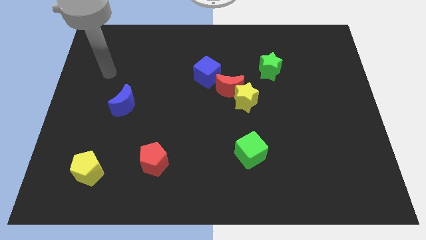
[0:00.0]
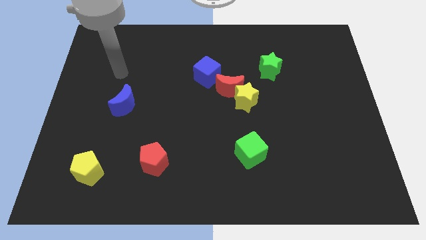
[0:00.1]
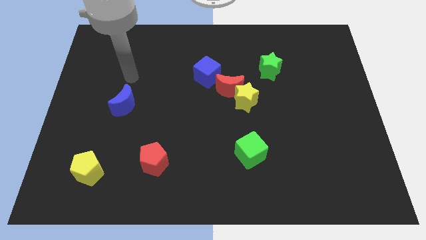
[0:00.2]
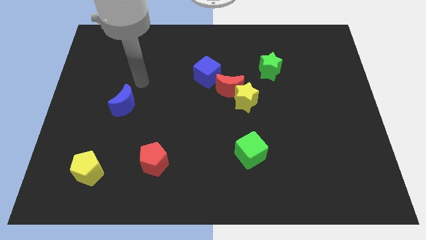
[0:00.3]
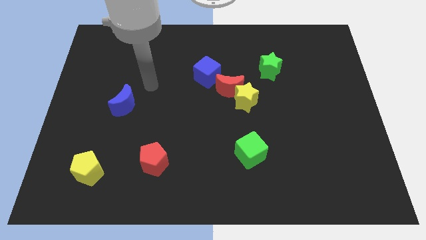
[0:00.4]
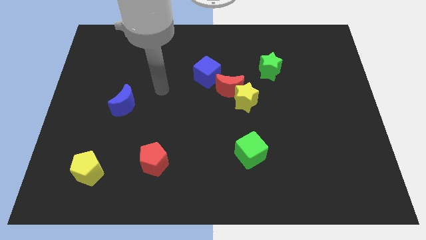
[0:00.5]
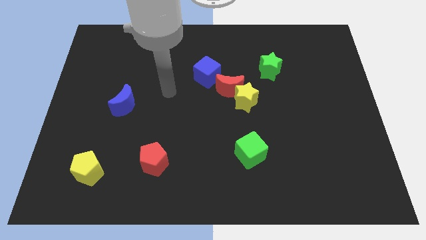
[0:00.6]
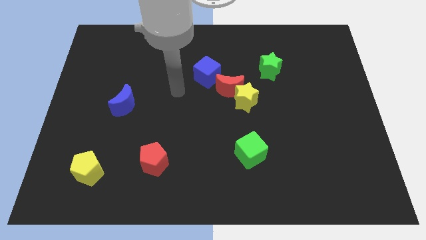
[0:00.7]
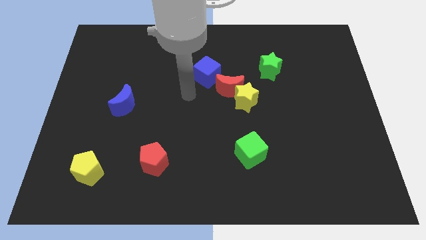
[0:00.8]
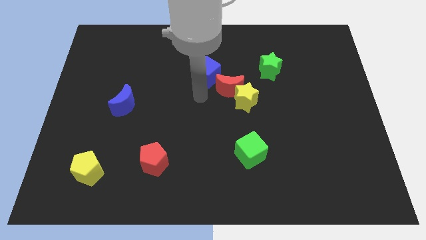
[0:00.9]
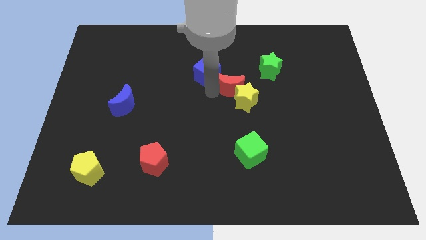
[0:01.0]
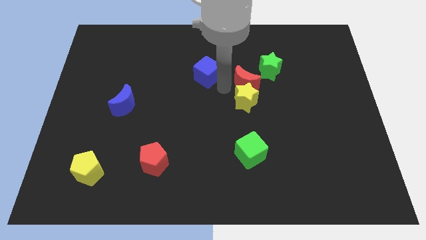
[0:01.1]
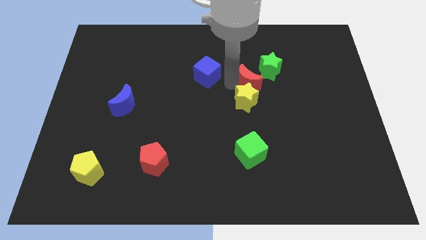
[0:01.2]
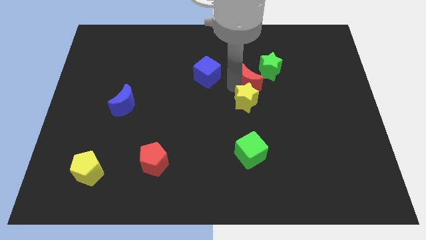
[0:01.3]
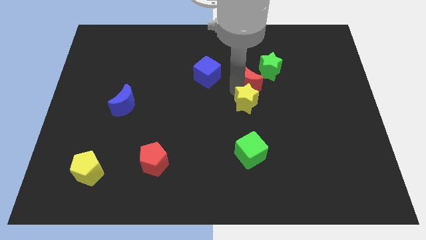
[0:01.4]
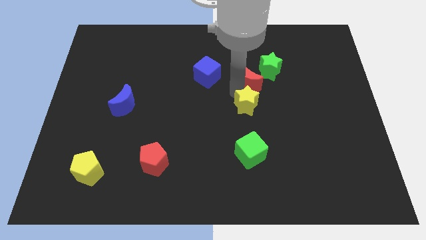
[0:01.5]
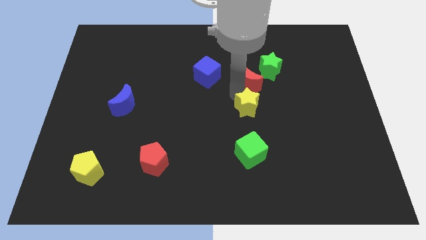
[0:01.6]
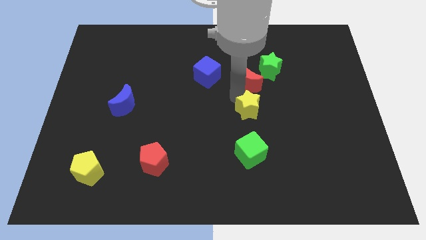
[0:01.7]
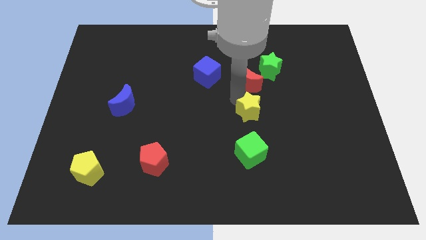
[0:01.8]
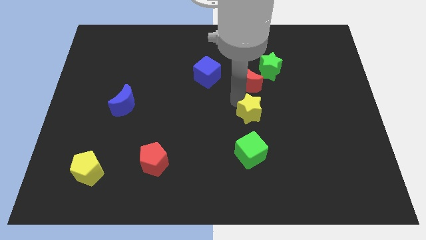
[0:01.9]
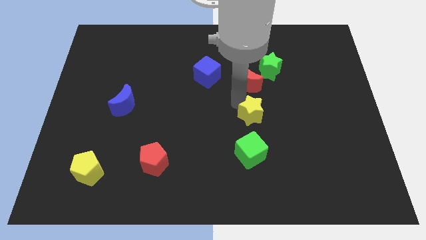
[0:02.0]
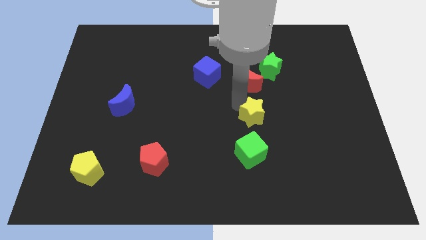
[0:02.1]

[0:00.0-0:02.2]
move the yellow star away from the red moon

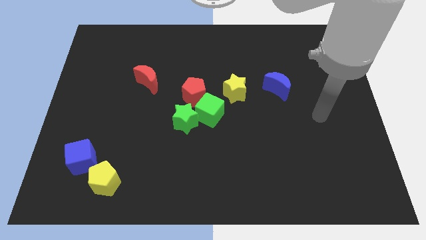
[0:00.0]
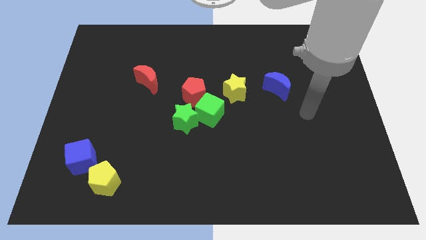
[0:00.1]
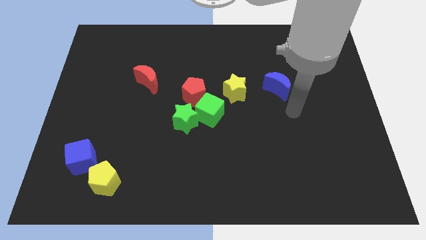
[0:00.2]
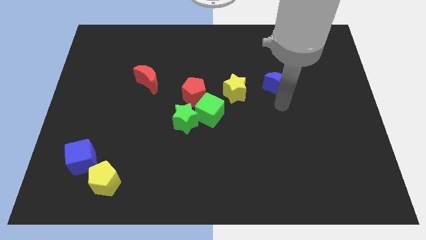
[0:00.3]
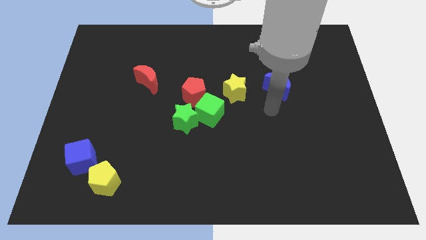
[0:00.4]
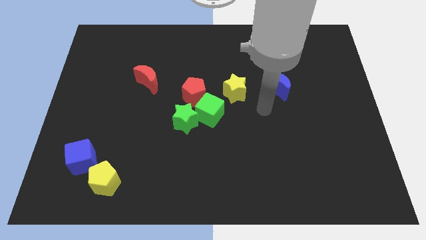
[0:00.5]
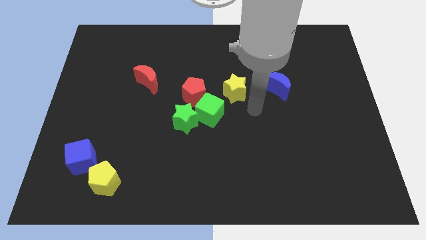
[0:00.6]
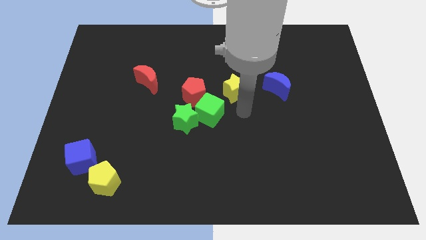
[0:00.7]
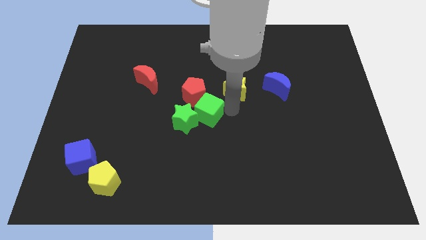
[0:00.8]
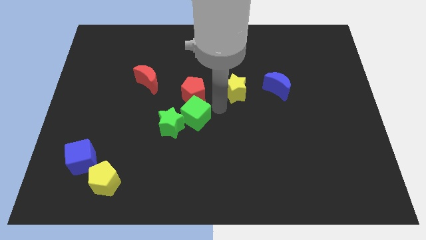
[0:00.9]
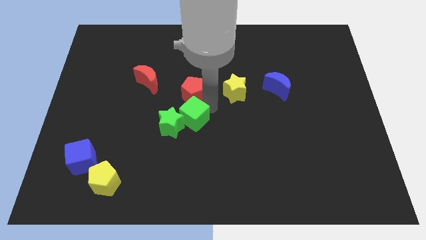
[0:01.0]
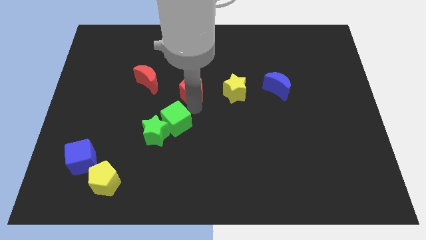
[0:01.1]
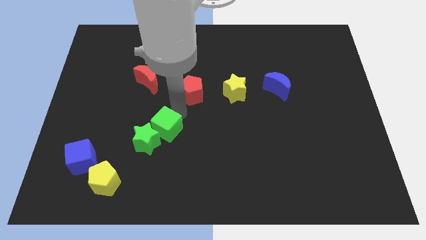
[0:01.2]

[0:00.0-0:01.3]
pull the green star apart from the green cube and red pentagon

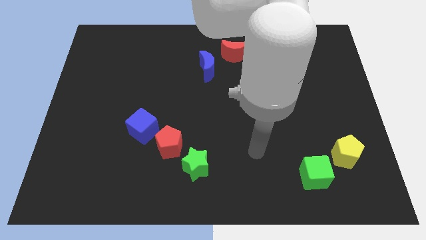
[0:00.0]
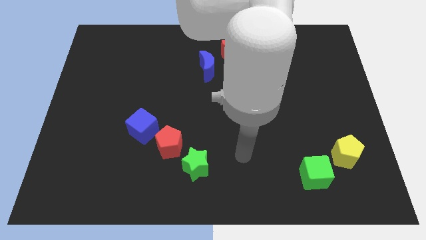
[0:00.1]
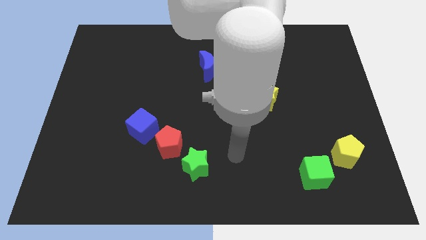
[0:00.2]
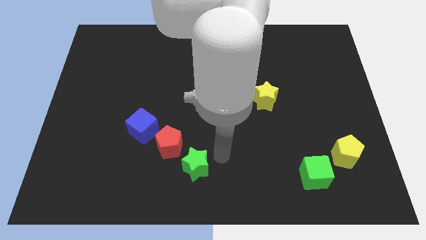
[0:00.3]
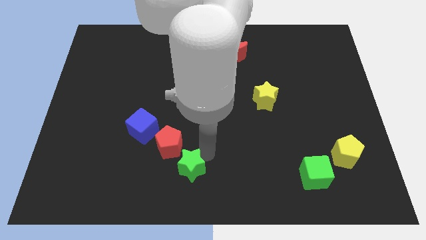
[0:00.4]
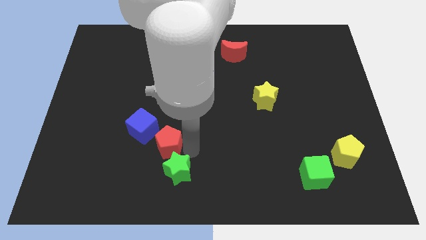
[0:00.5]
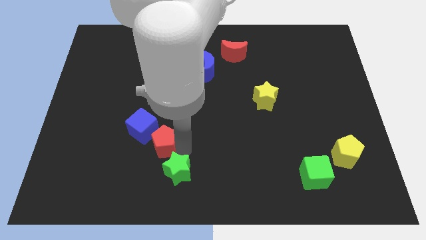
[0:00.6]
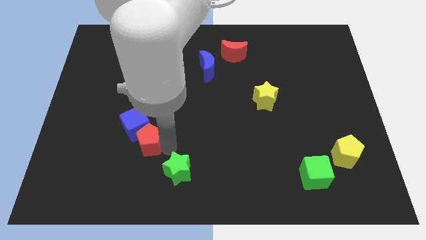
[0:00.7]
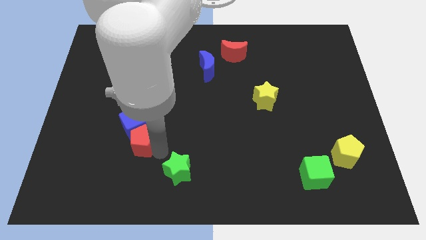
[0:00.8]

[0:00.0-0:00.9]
move the green star away from the red pentagon

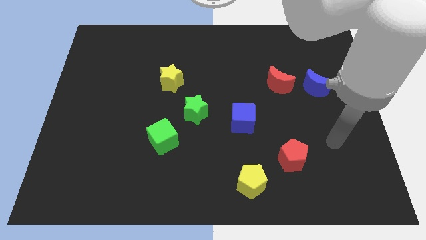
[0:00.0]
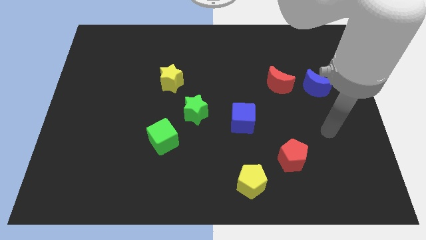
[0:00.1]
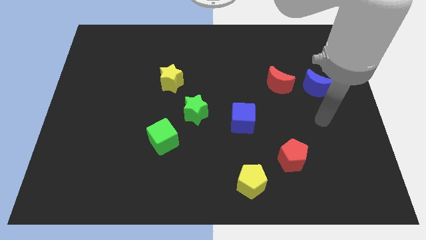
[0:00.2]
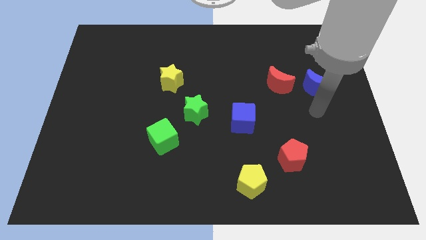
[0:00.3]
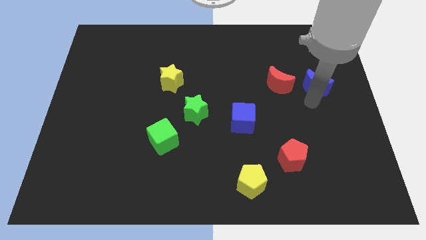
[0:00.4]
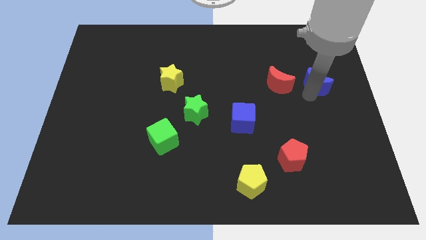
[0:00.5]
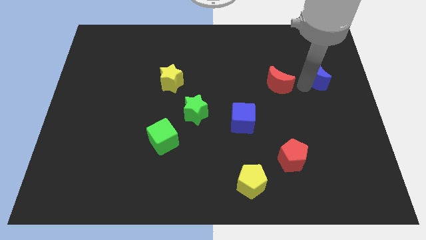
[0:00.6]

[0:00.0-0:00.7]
pull the red moon apart from the blue moon

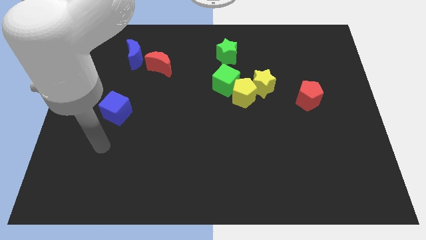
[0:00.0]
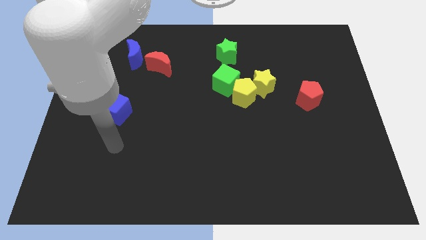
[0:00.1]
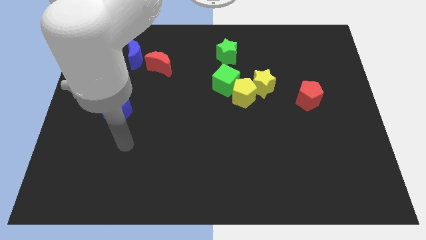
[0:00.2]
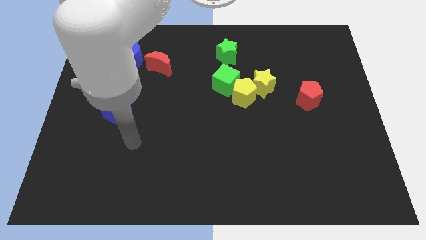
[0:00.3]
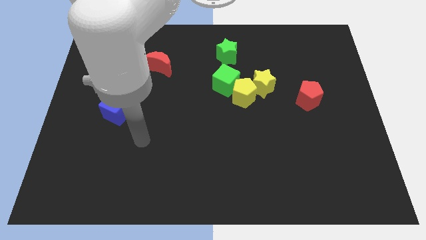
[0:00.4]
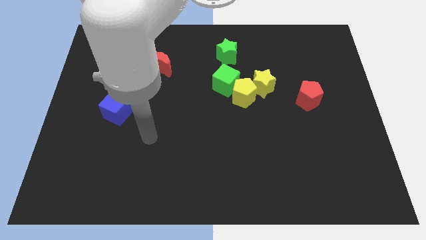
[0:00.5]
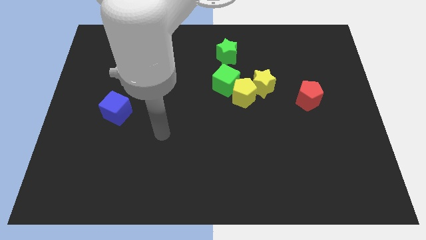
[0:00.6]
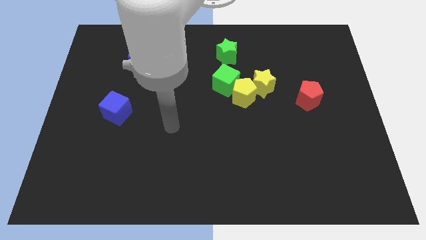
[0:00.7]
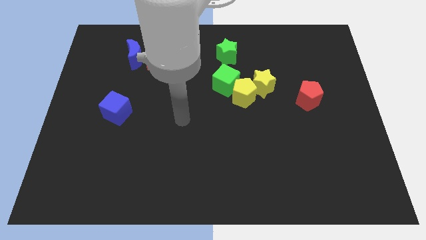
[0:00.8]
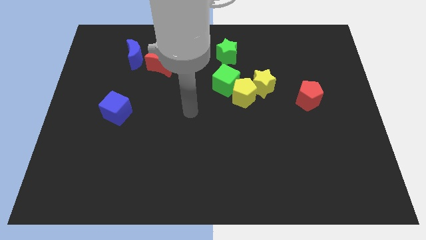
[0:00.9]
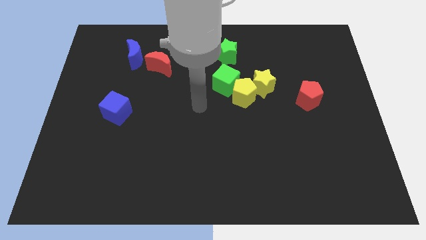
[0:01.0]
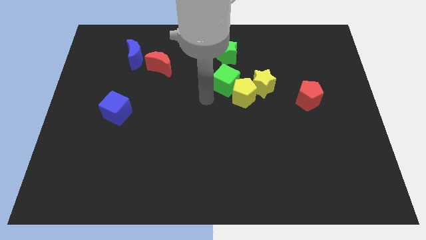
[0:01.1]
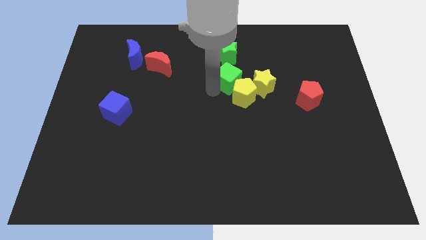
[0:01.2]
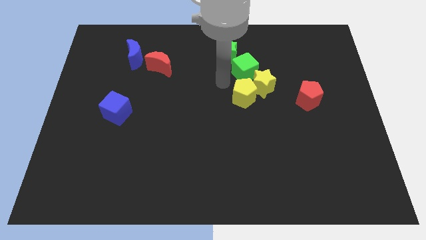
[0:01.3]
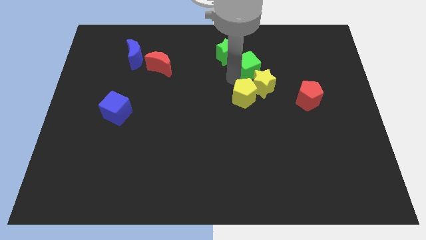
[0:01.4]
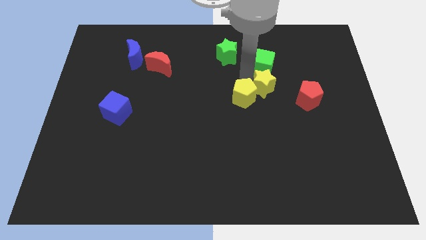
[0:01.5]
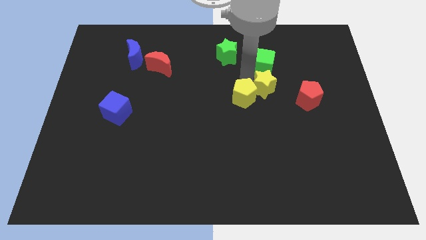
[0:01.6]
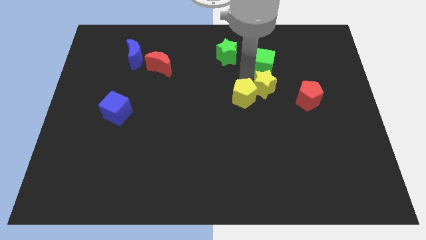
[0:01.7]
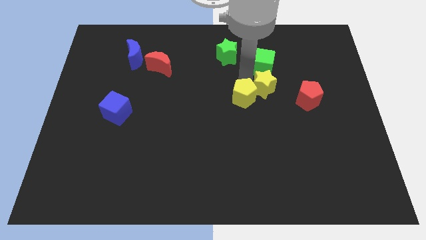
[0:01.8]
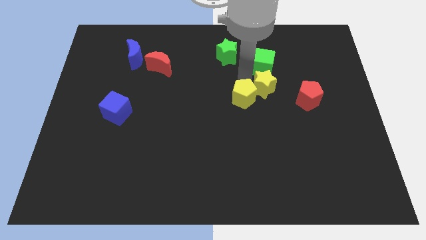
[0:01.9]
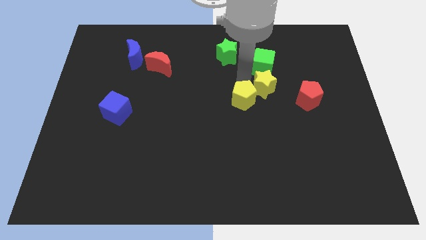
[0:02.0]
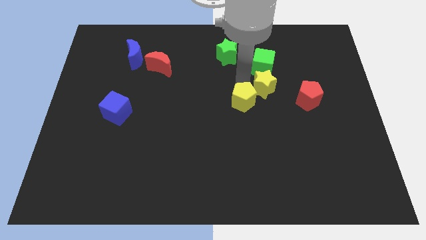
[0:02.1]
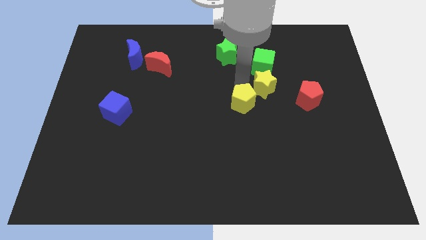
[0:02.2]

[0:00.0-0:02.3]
separate the yellow pentagon from the yellow star and green cube

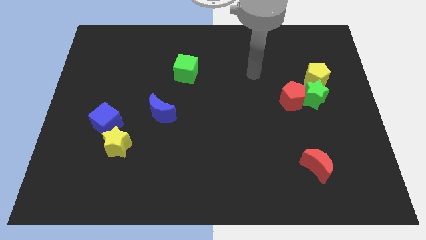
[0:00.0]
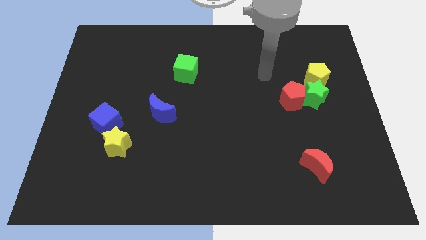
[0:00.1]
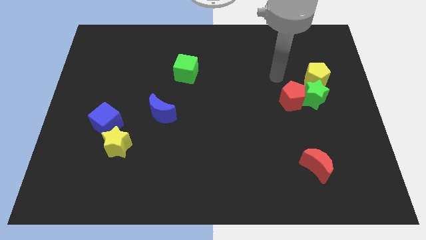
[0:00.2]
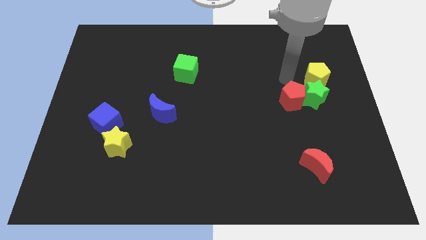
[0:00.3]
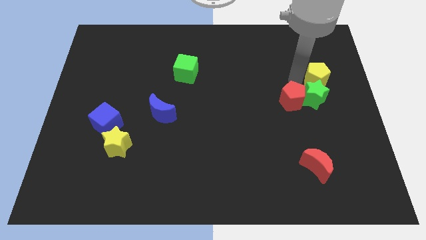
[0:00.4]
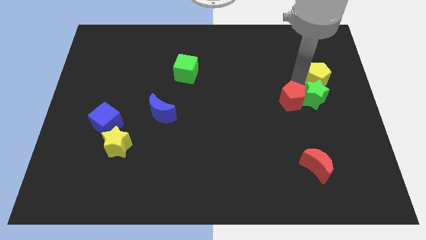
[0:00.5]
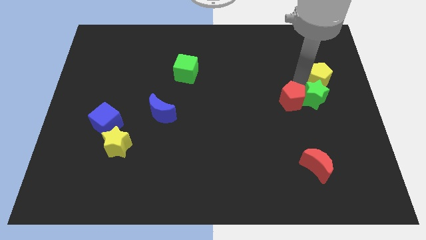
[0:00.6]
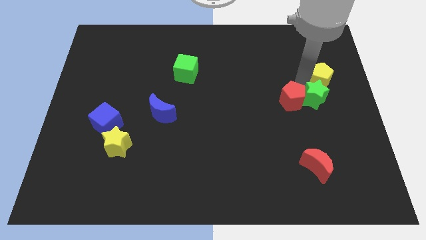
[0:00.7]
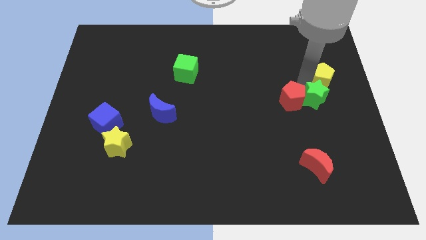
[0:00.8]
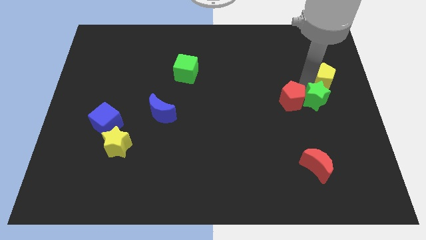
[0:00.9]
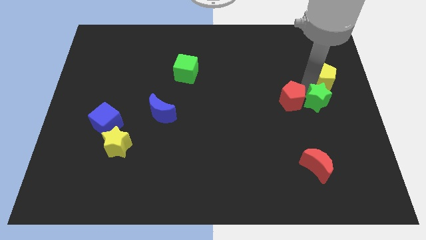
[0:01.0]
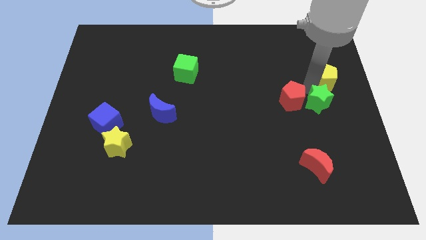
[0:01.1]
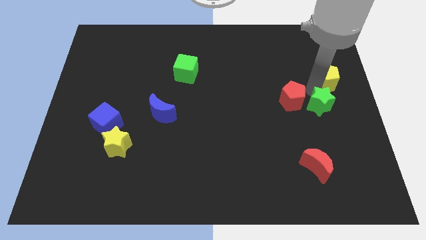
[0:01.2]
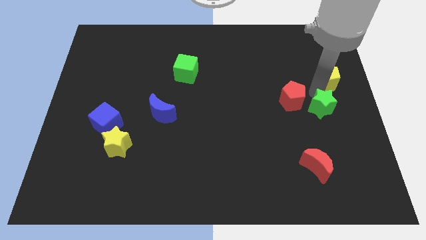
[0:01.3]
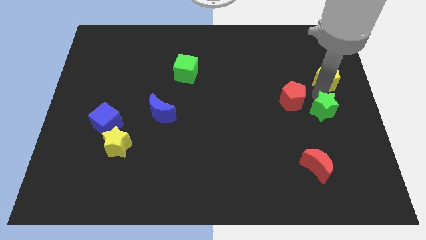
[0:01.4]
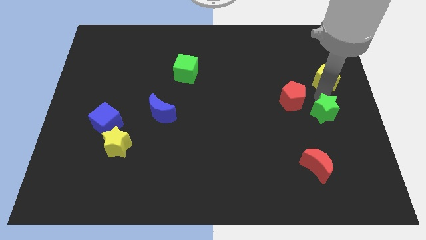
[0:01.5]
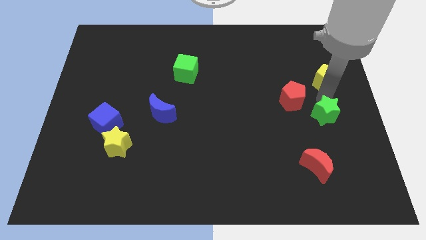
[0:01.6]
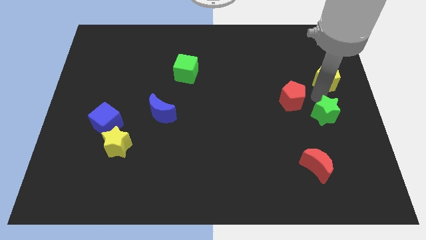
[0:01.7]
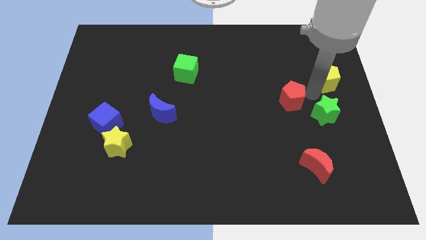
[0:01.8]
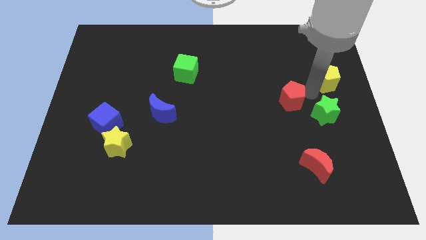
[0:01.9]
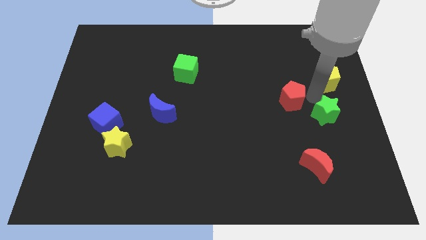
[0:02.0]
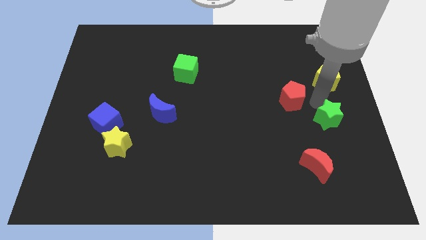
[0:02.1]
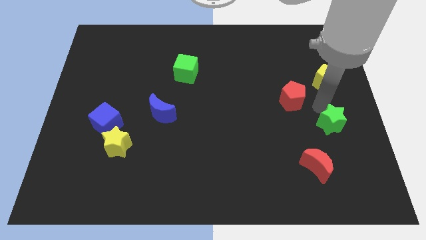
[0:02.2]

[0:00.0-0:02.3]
pull the green star apart from the red pentagon and yellow pentagon
